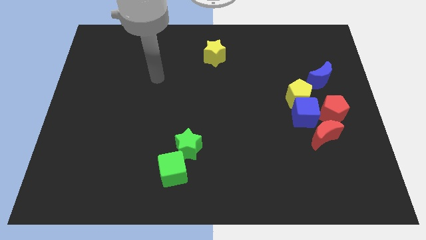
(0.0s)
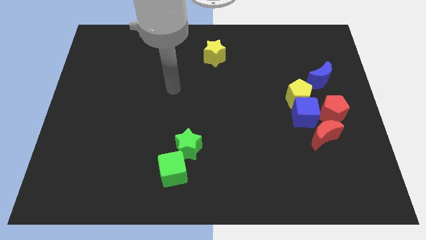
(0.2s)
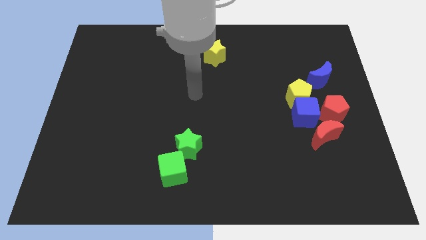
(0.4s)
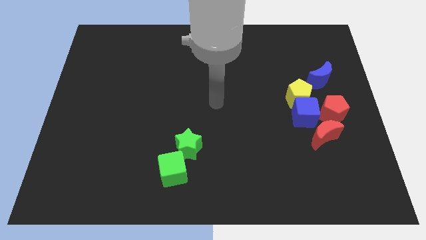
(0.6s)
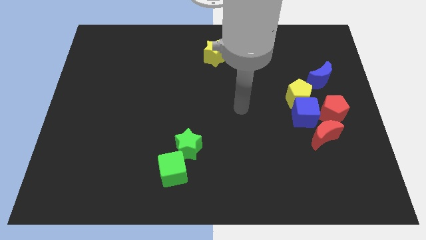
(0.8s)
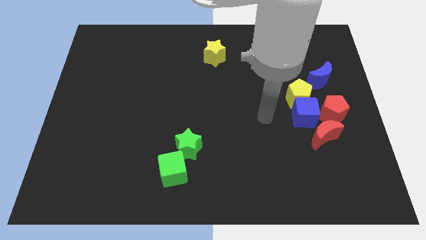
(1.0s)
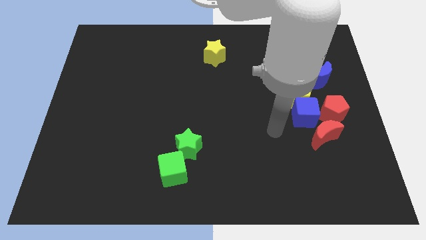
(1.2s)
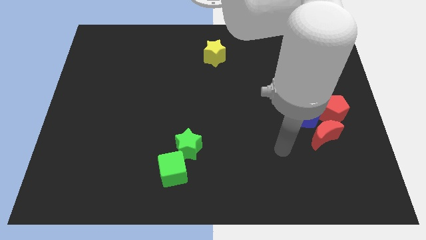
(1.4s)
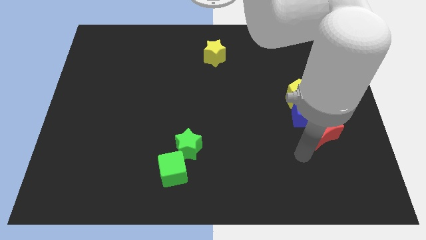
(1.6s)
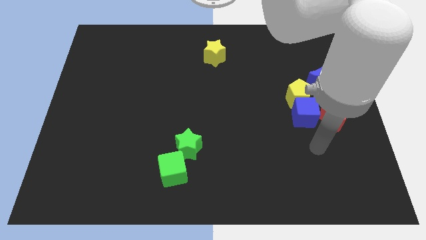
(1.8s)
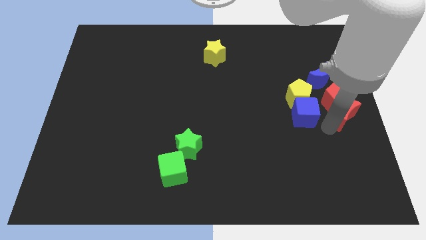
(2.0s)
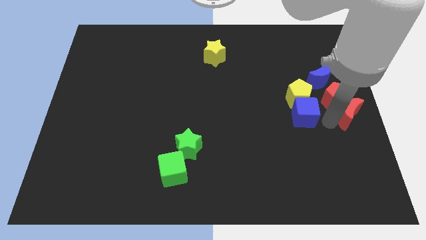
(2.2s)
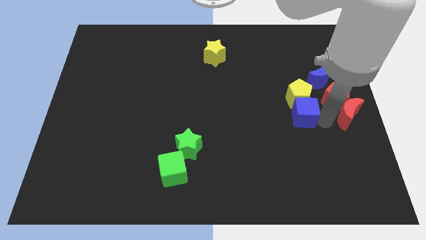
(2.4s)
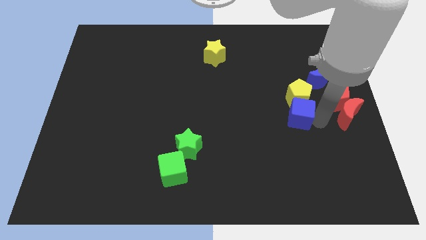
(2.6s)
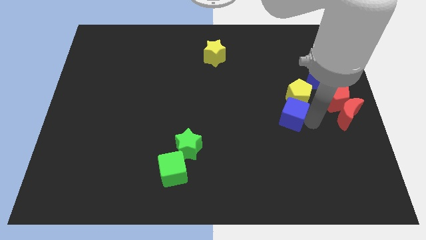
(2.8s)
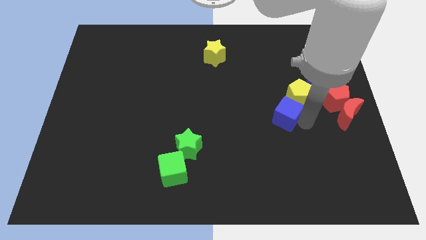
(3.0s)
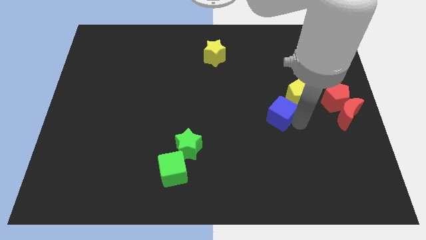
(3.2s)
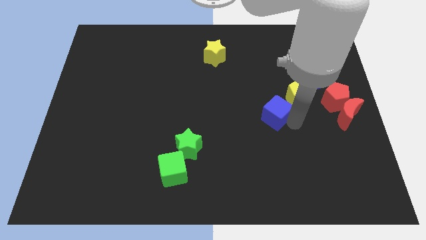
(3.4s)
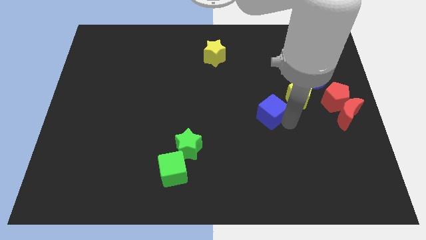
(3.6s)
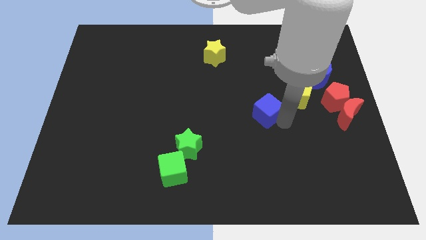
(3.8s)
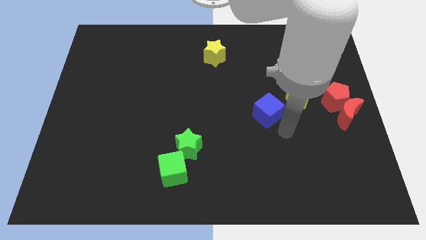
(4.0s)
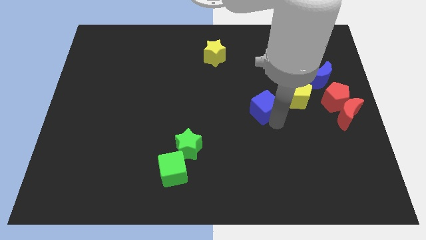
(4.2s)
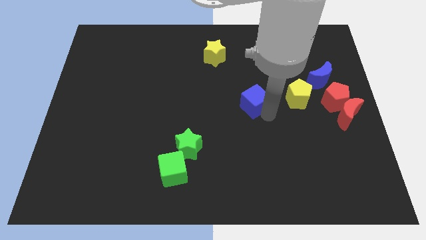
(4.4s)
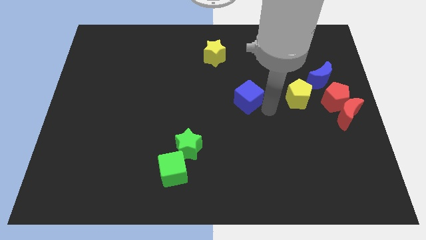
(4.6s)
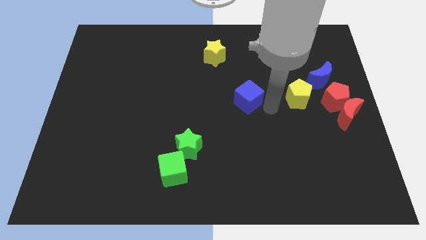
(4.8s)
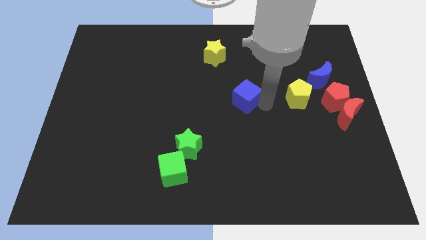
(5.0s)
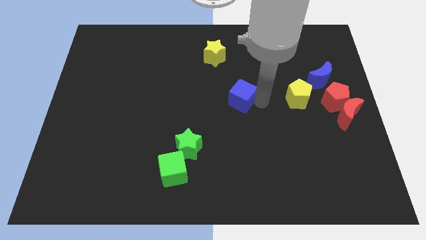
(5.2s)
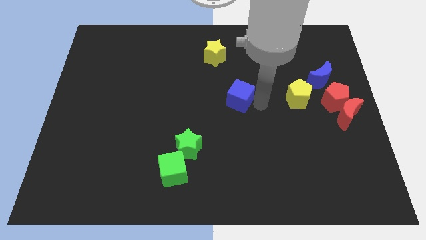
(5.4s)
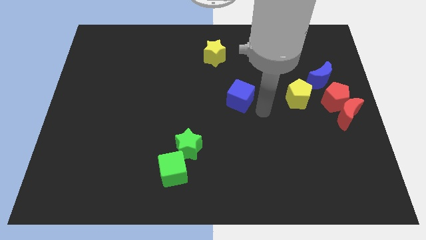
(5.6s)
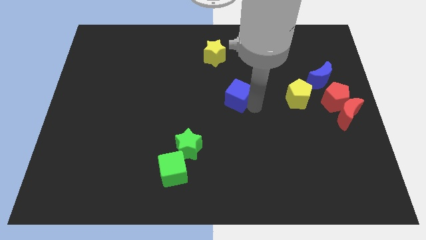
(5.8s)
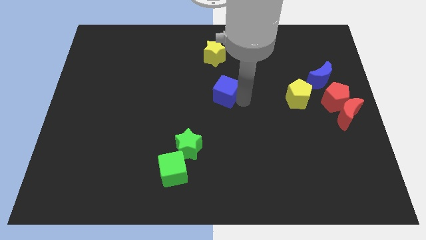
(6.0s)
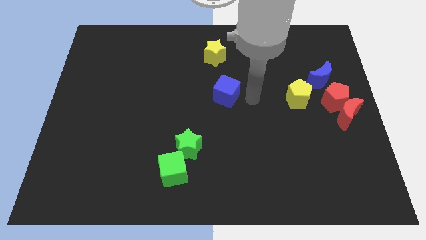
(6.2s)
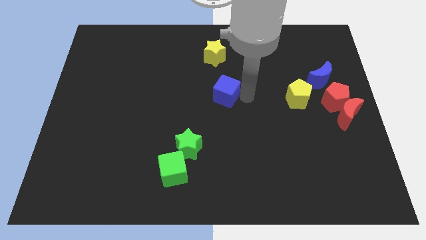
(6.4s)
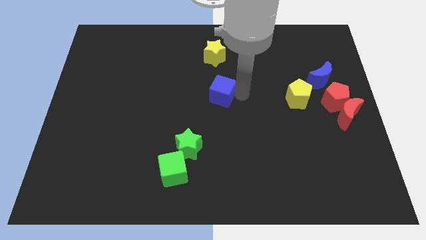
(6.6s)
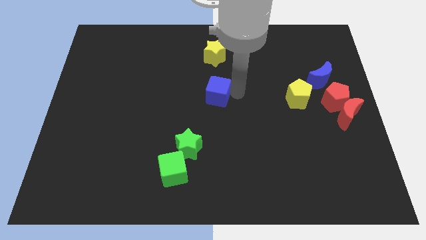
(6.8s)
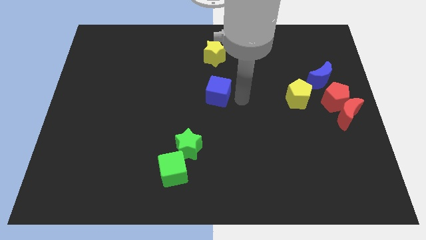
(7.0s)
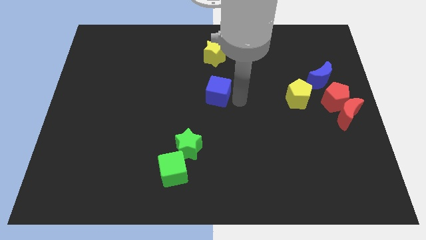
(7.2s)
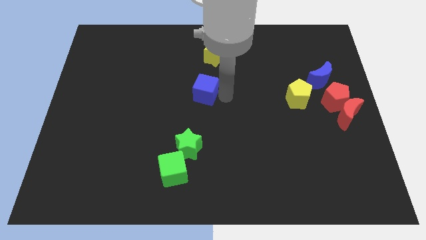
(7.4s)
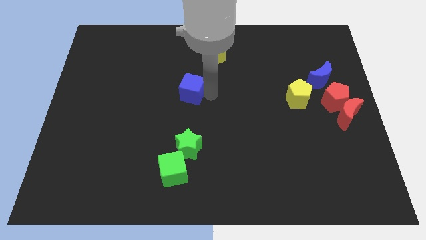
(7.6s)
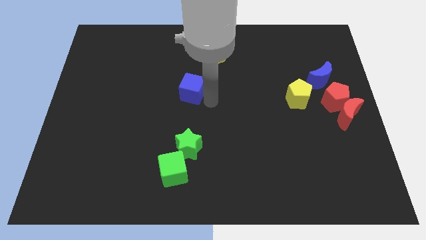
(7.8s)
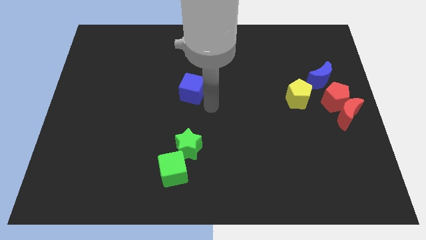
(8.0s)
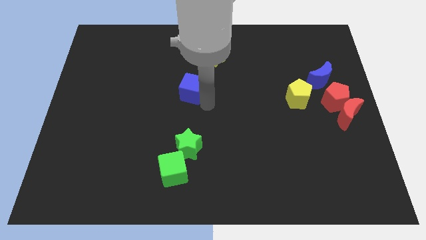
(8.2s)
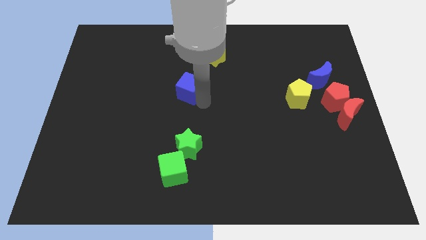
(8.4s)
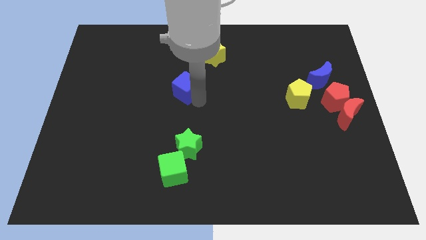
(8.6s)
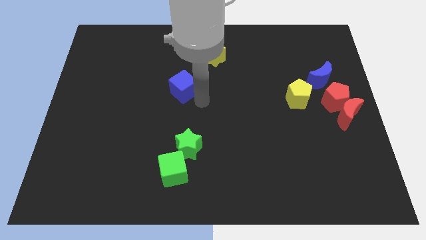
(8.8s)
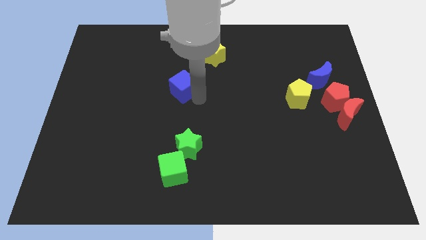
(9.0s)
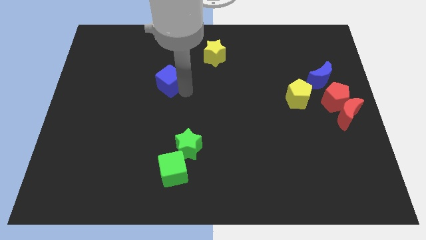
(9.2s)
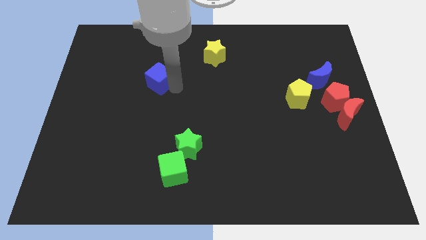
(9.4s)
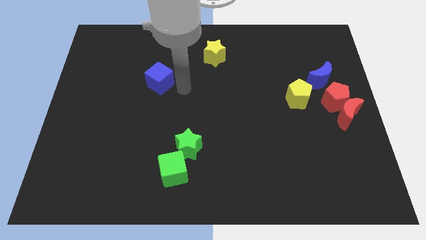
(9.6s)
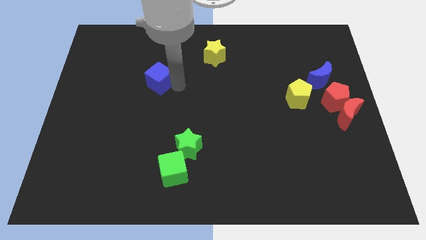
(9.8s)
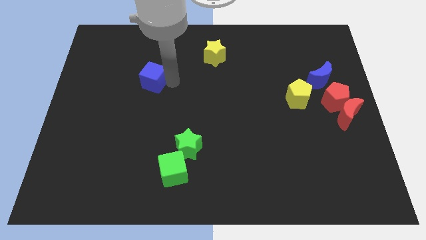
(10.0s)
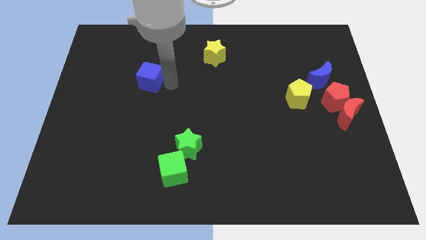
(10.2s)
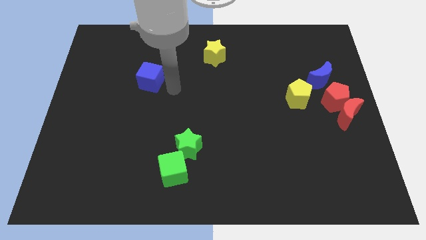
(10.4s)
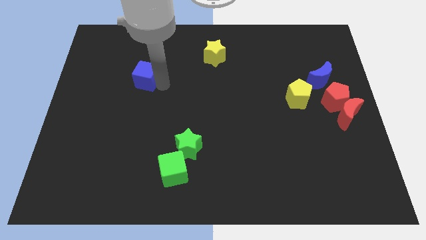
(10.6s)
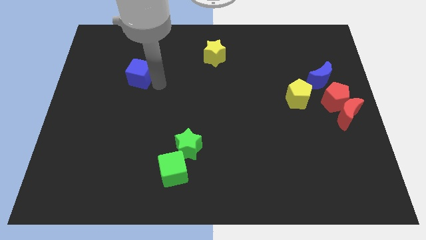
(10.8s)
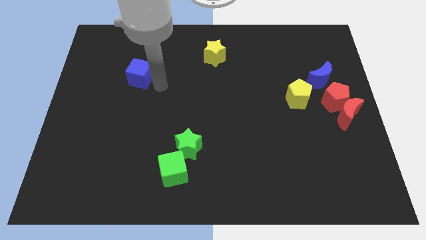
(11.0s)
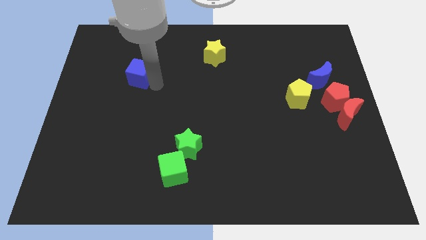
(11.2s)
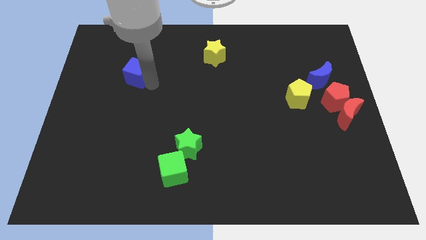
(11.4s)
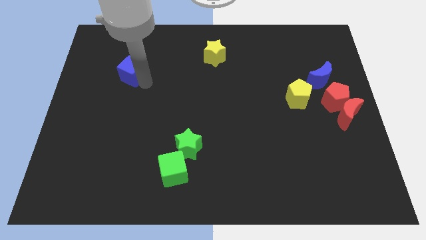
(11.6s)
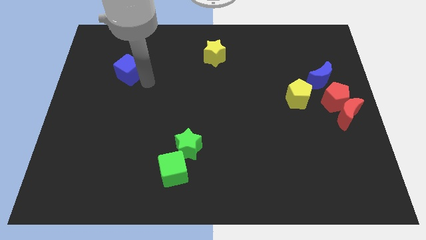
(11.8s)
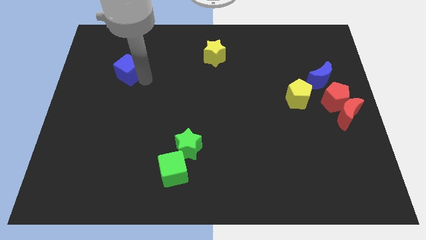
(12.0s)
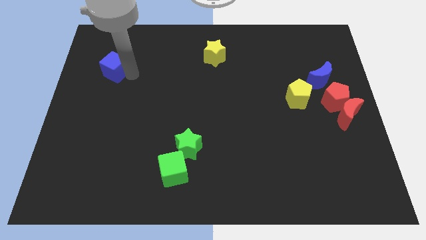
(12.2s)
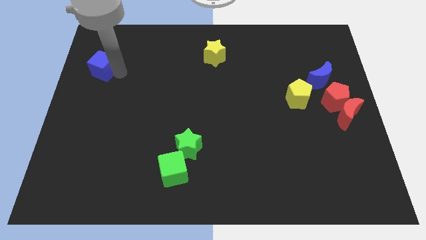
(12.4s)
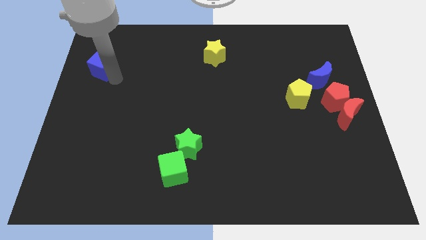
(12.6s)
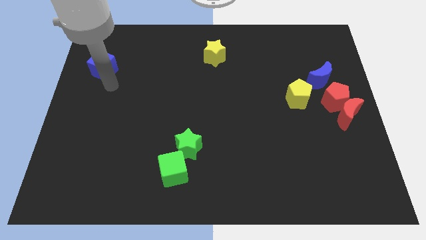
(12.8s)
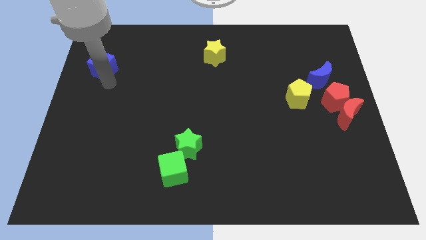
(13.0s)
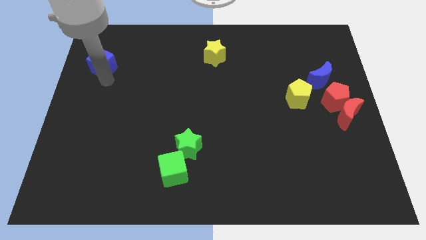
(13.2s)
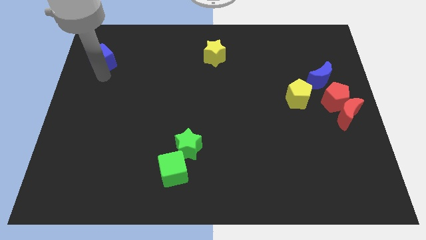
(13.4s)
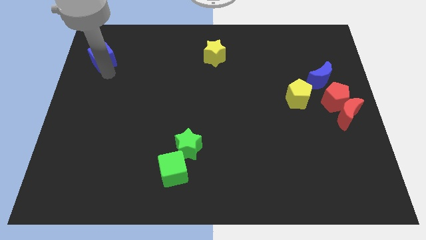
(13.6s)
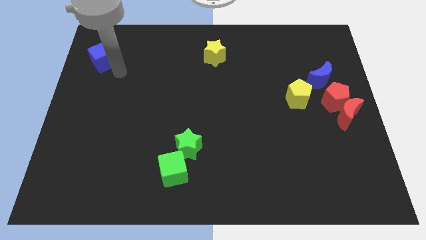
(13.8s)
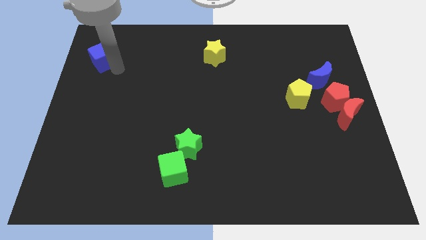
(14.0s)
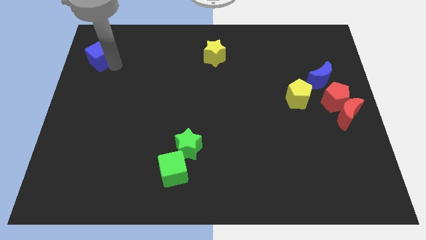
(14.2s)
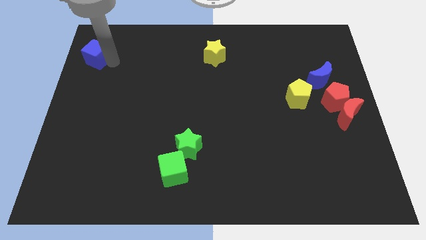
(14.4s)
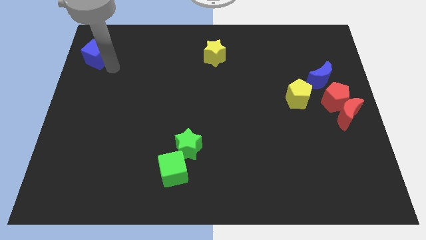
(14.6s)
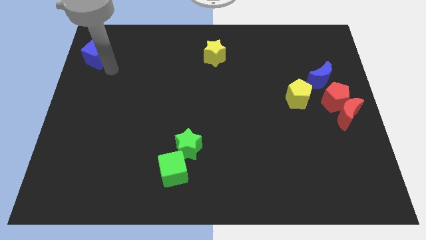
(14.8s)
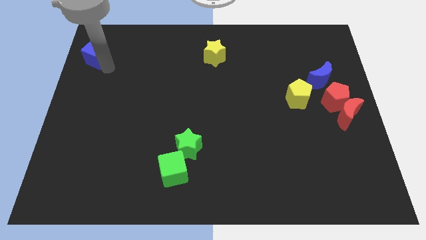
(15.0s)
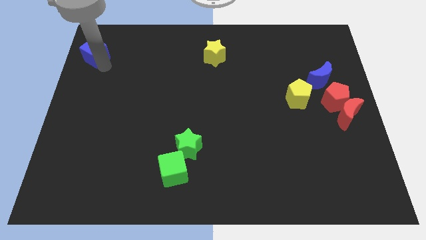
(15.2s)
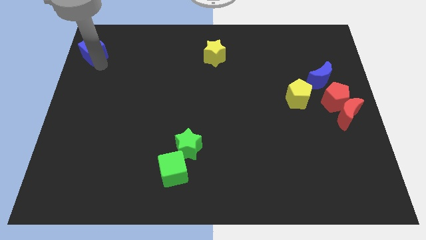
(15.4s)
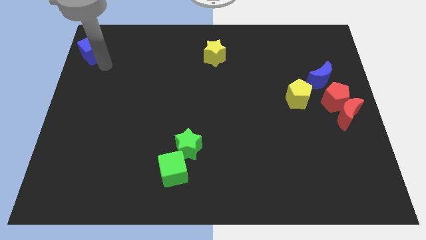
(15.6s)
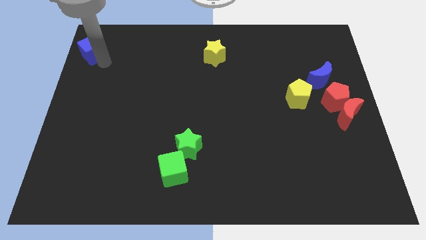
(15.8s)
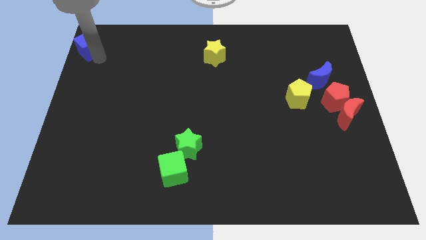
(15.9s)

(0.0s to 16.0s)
slide the blue cube to the upper left corner
